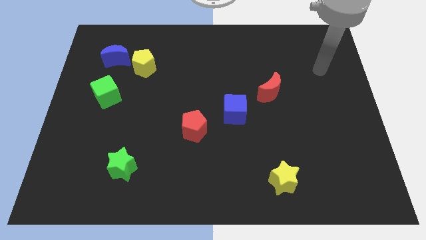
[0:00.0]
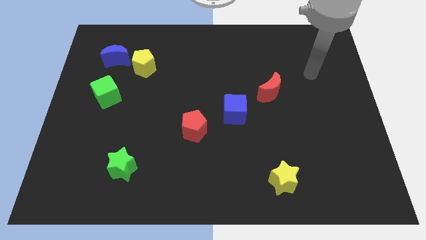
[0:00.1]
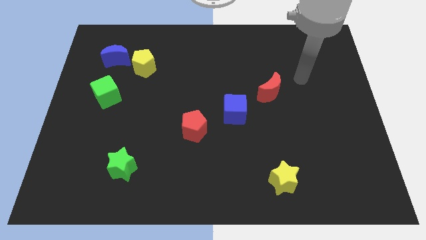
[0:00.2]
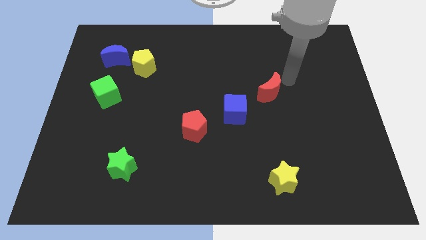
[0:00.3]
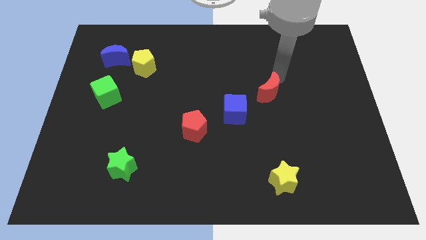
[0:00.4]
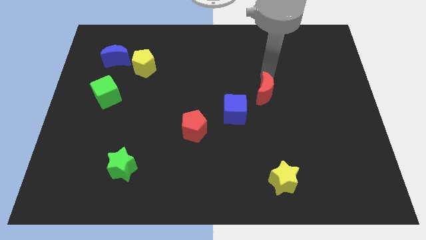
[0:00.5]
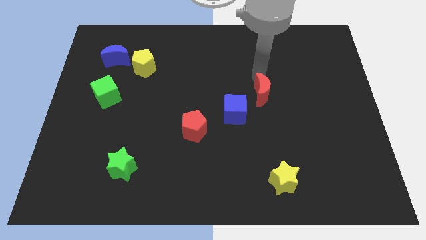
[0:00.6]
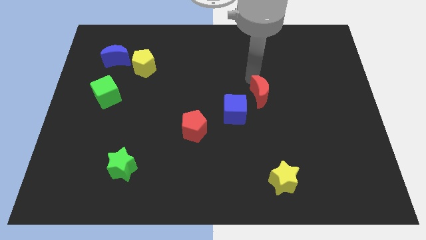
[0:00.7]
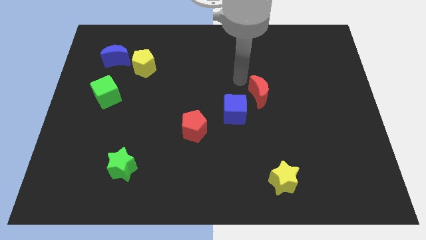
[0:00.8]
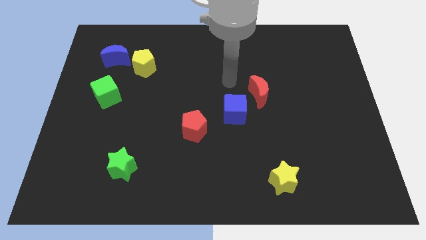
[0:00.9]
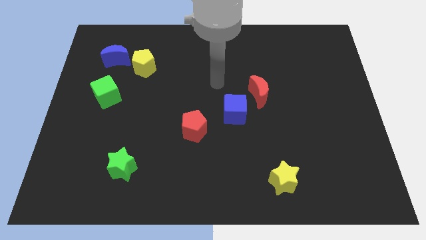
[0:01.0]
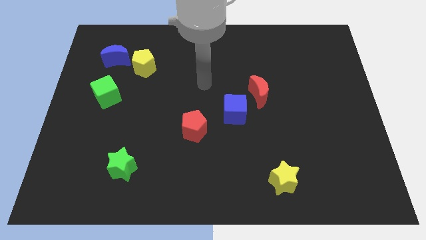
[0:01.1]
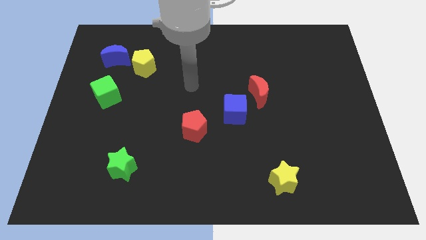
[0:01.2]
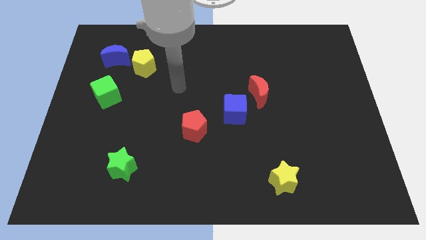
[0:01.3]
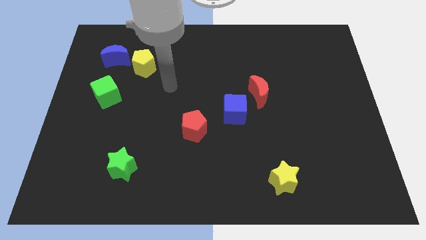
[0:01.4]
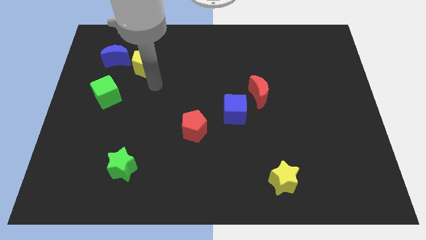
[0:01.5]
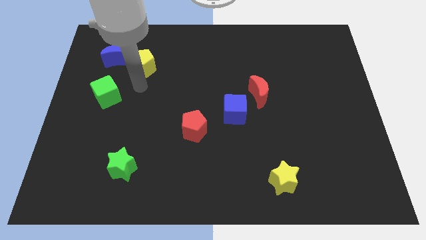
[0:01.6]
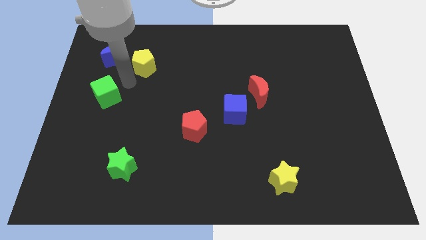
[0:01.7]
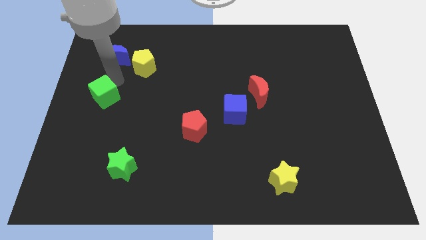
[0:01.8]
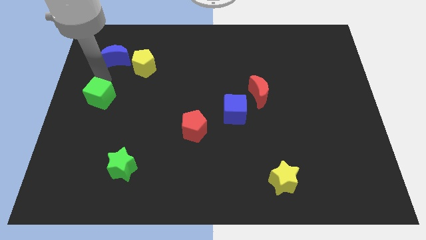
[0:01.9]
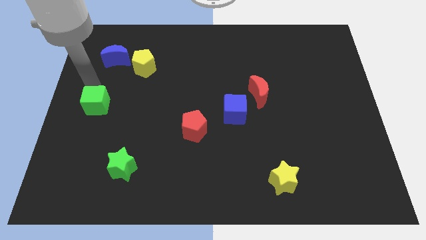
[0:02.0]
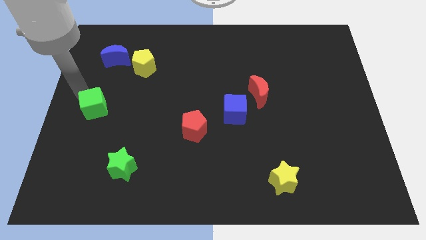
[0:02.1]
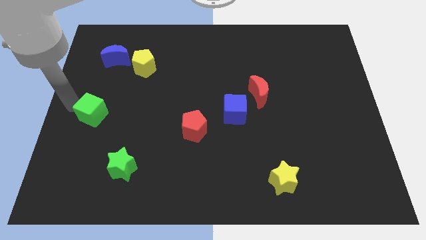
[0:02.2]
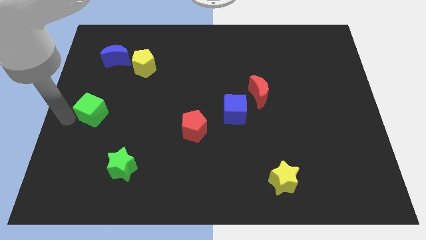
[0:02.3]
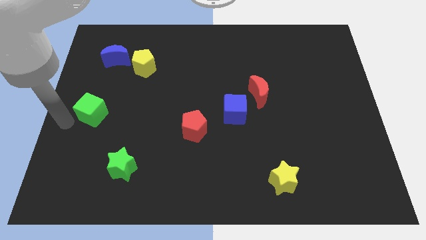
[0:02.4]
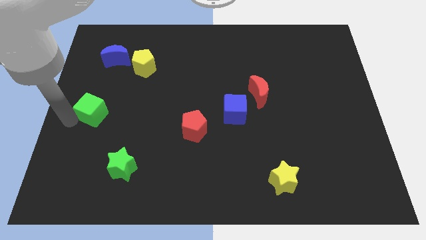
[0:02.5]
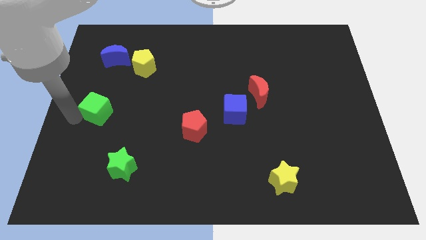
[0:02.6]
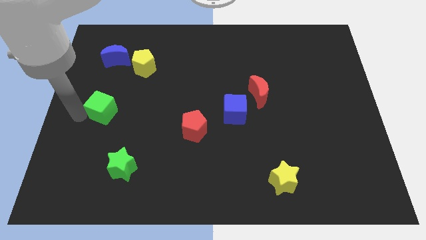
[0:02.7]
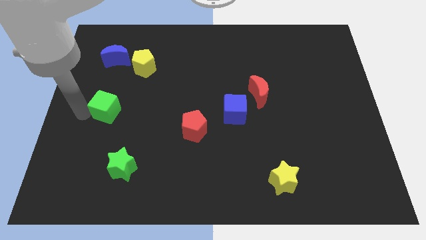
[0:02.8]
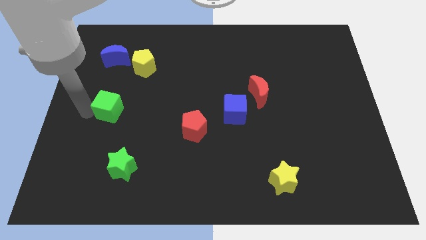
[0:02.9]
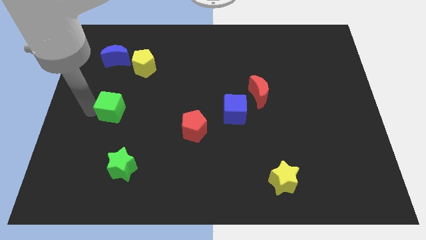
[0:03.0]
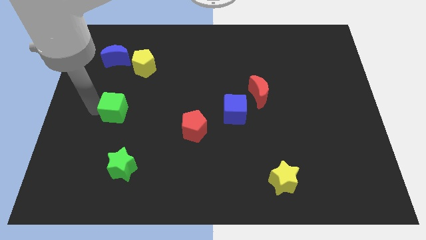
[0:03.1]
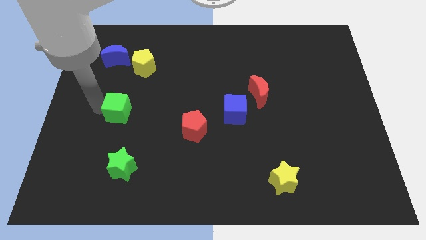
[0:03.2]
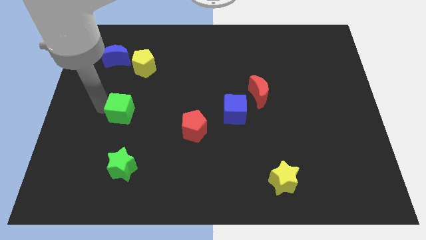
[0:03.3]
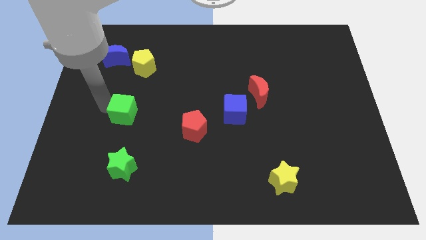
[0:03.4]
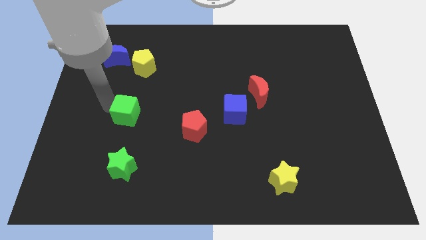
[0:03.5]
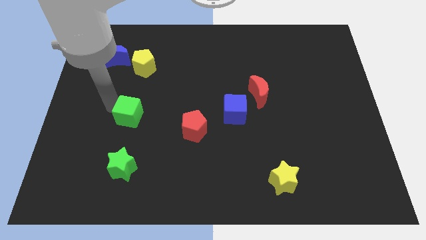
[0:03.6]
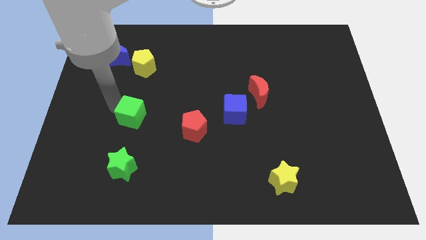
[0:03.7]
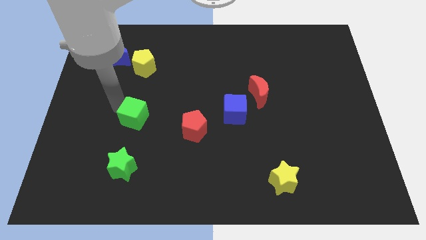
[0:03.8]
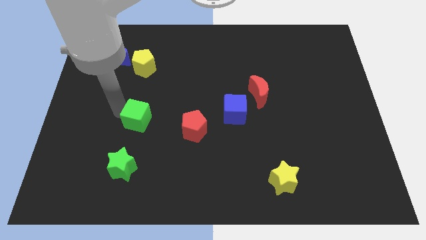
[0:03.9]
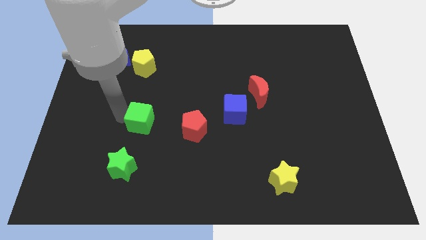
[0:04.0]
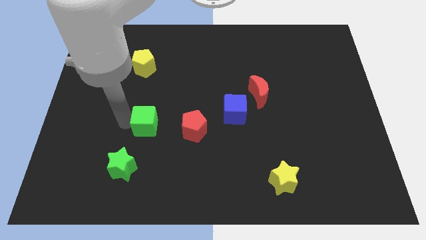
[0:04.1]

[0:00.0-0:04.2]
slightly push the green cube right

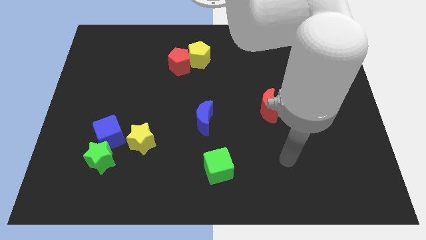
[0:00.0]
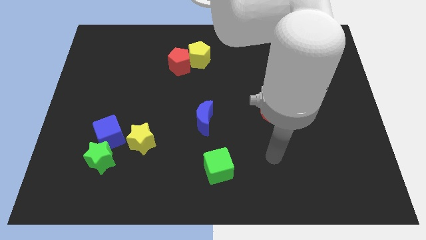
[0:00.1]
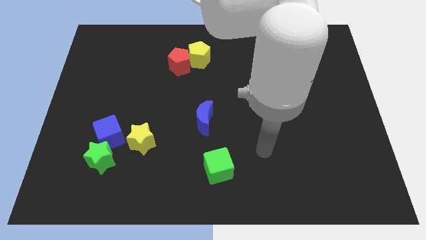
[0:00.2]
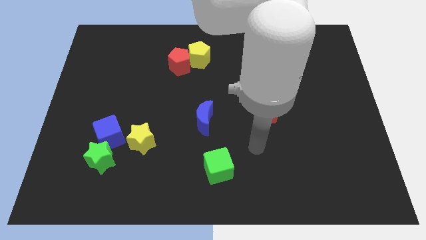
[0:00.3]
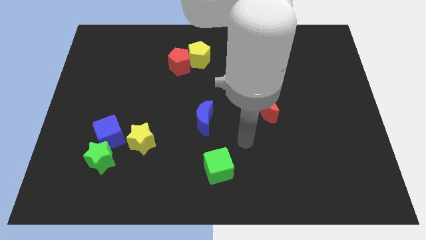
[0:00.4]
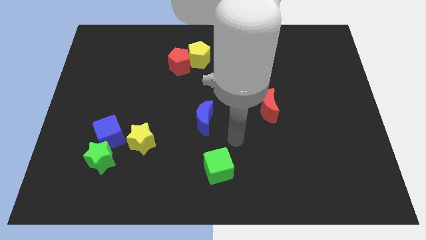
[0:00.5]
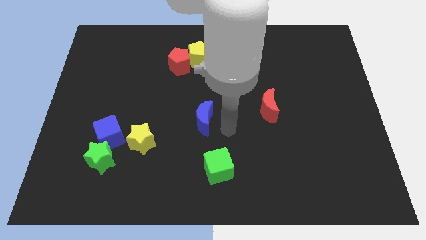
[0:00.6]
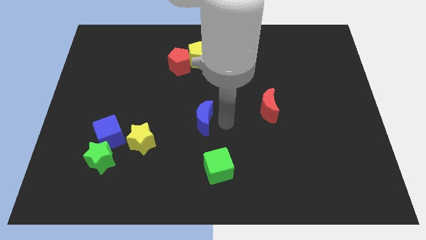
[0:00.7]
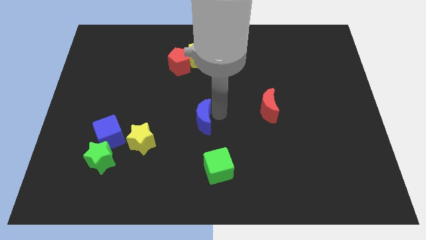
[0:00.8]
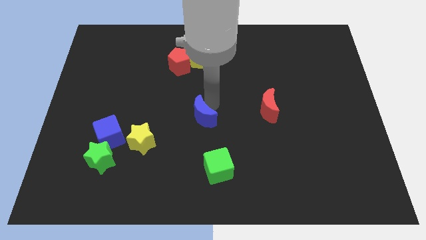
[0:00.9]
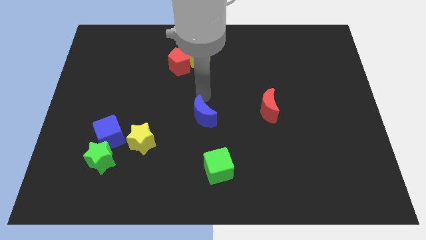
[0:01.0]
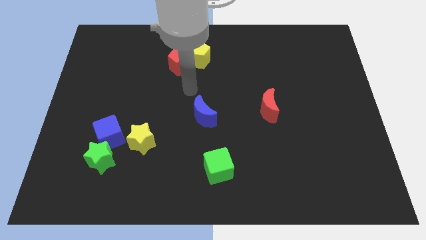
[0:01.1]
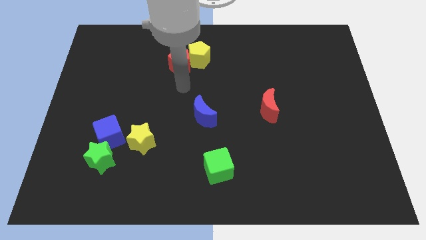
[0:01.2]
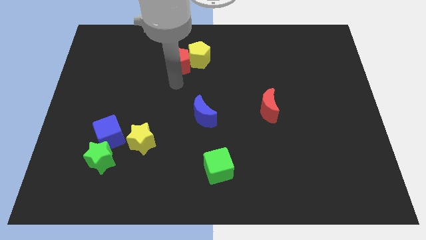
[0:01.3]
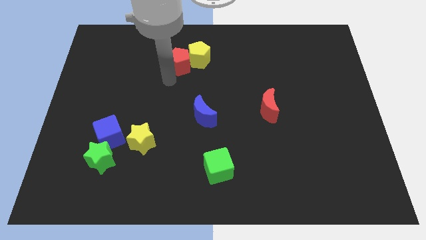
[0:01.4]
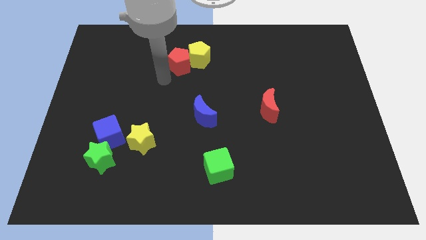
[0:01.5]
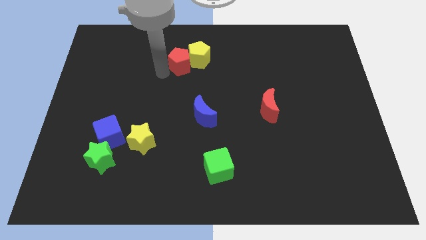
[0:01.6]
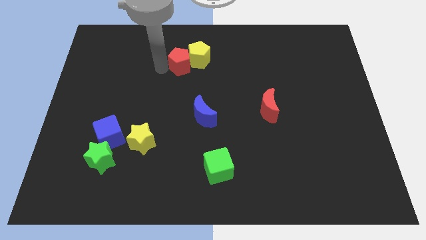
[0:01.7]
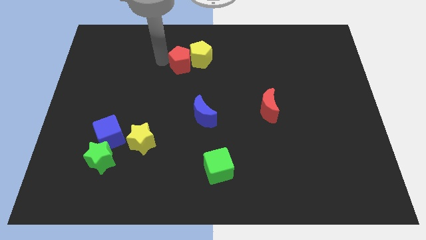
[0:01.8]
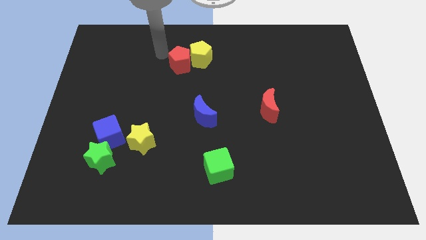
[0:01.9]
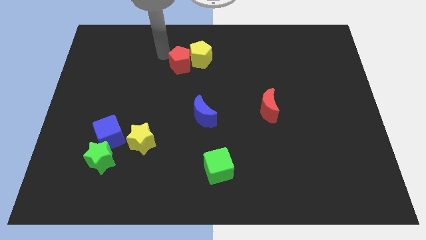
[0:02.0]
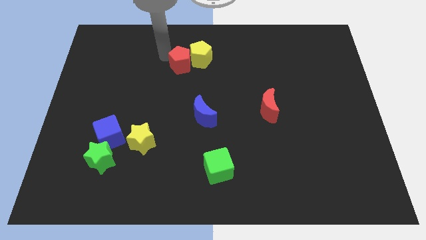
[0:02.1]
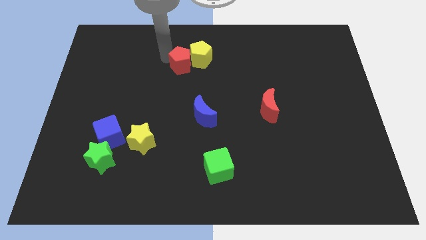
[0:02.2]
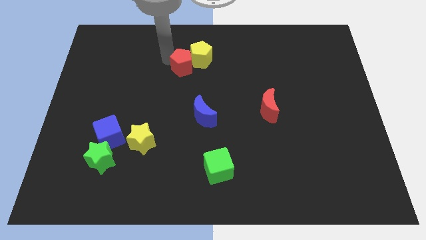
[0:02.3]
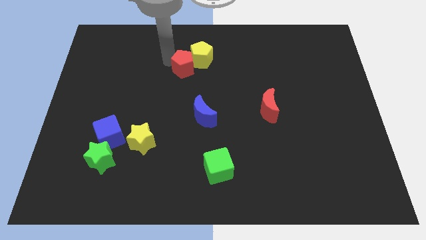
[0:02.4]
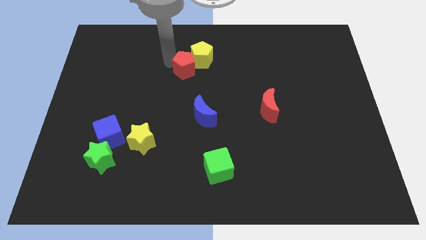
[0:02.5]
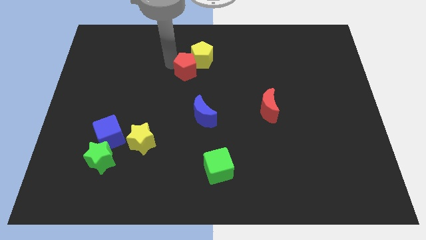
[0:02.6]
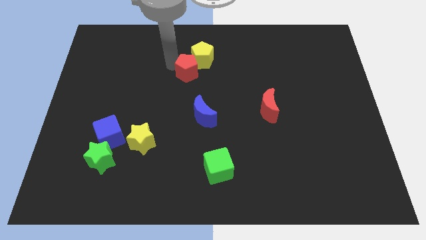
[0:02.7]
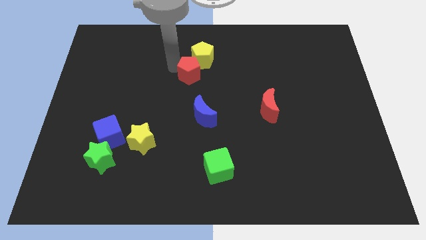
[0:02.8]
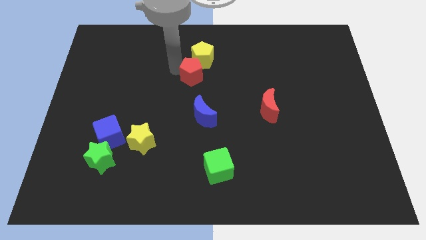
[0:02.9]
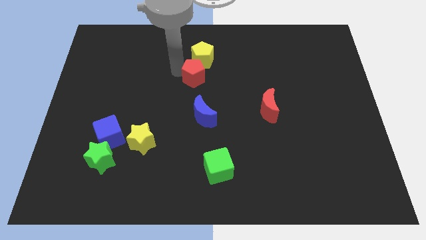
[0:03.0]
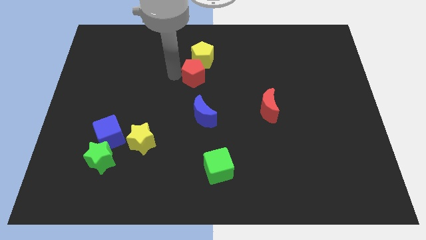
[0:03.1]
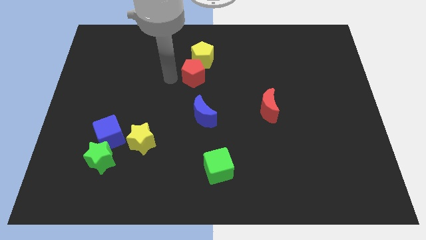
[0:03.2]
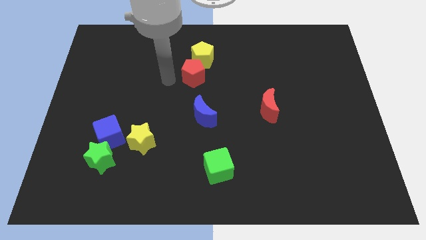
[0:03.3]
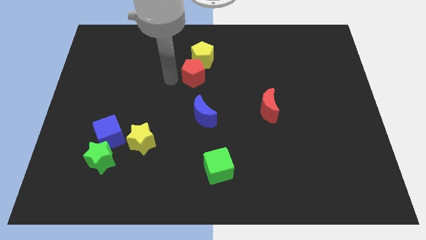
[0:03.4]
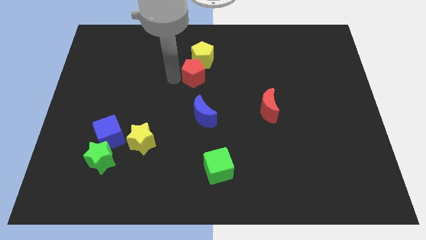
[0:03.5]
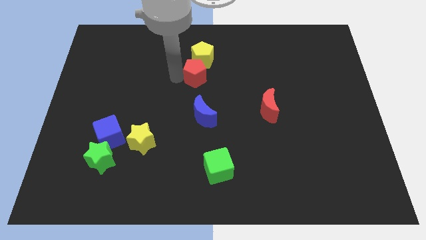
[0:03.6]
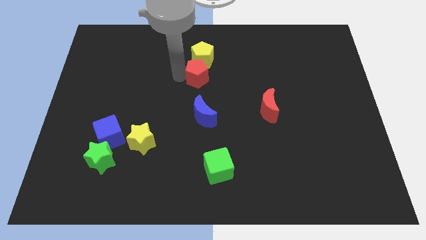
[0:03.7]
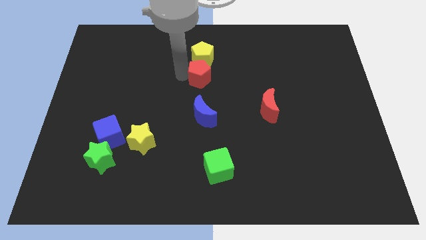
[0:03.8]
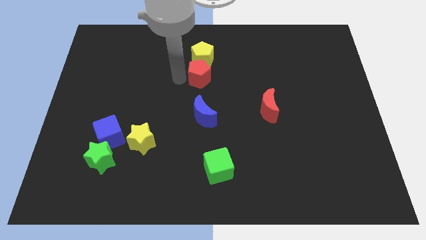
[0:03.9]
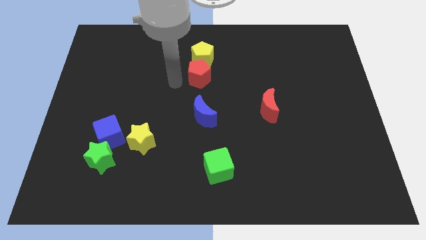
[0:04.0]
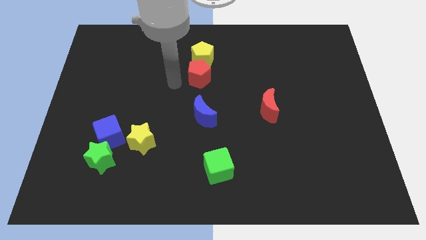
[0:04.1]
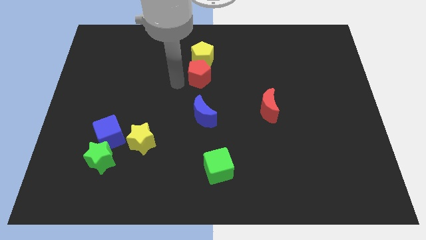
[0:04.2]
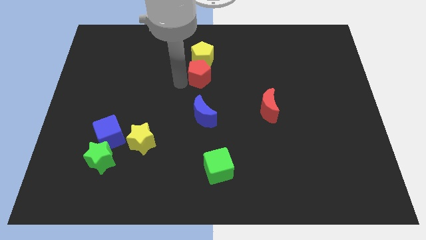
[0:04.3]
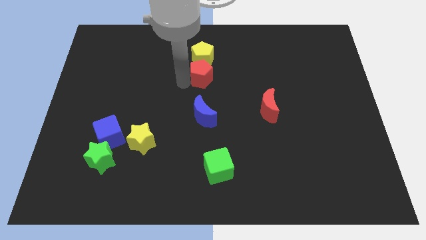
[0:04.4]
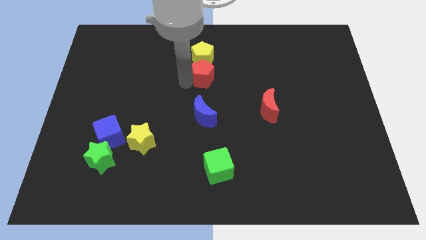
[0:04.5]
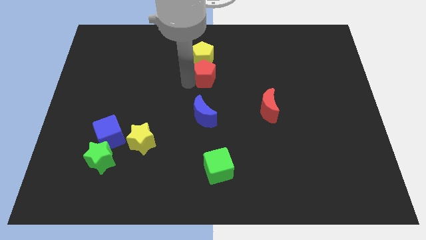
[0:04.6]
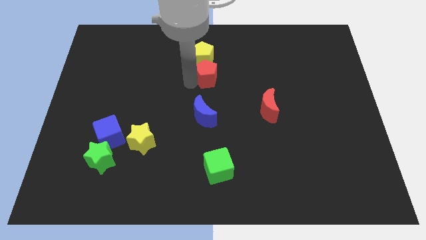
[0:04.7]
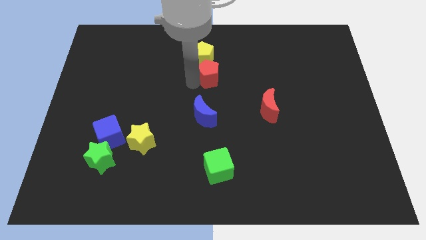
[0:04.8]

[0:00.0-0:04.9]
push the red pentagon to the right a little
